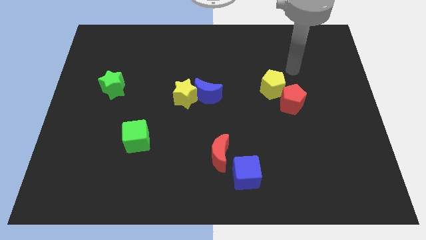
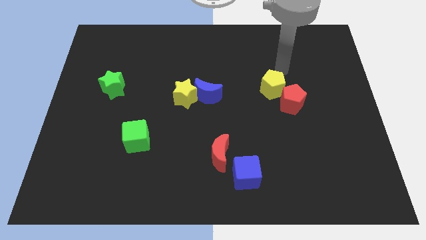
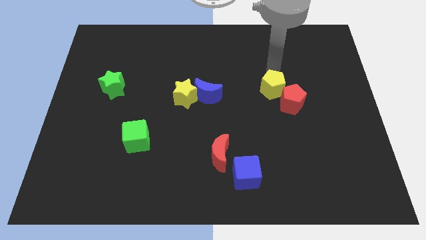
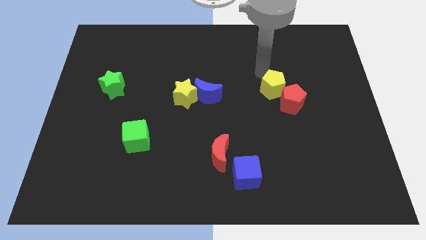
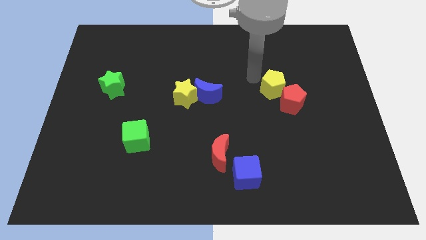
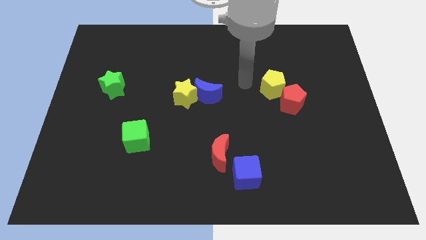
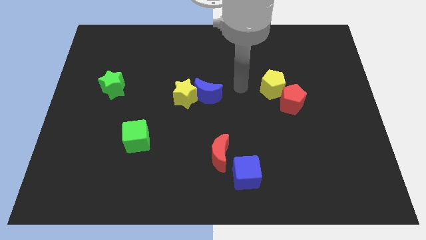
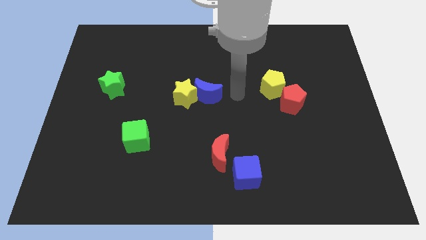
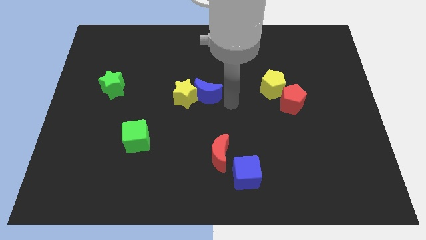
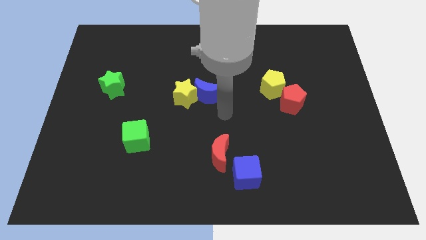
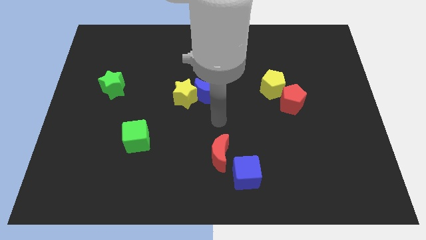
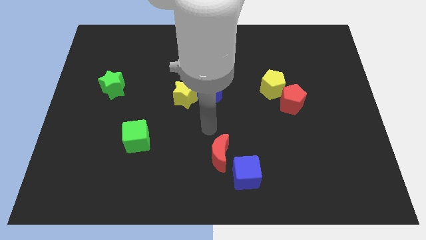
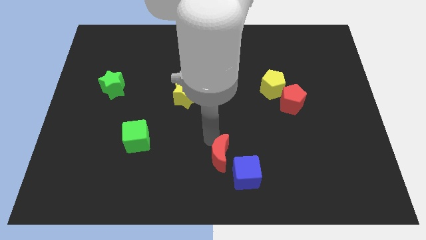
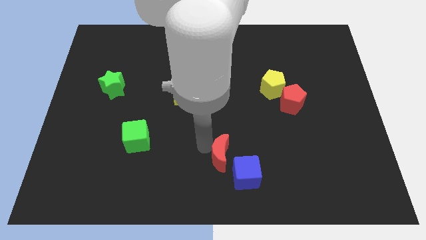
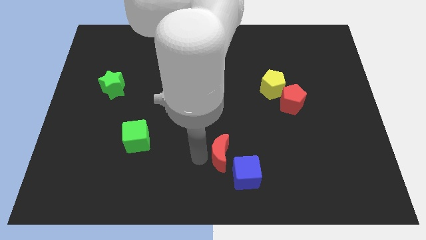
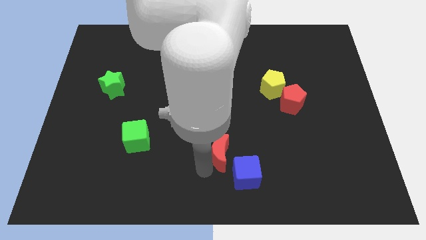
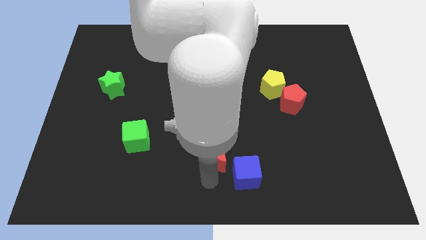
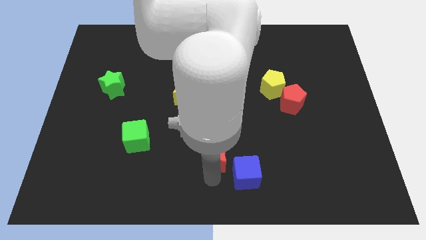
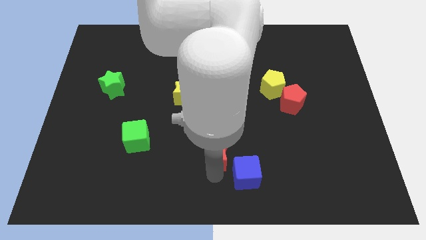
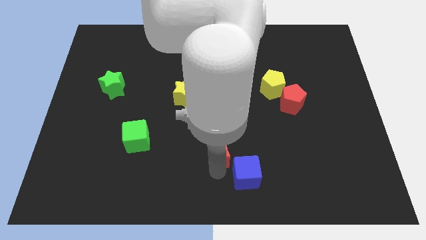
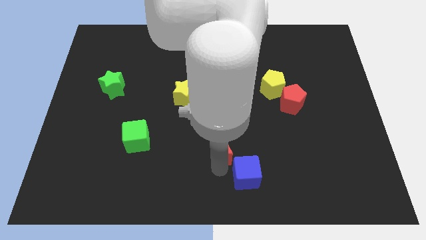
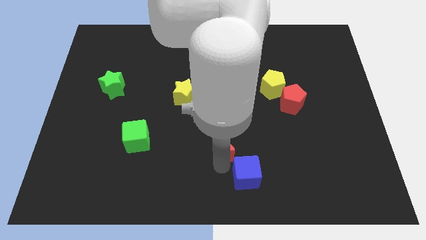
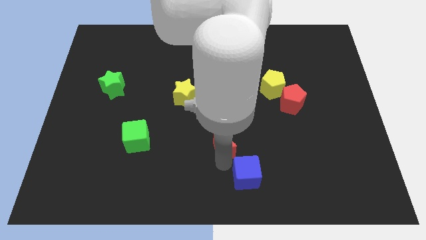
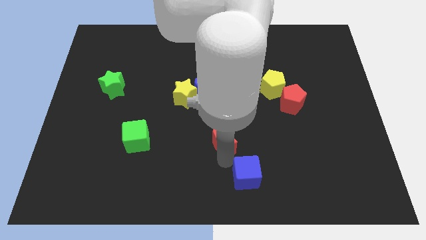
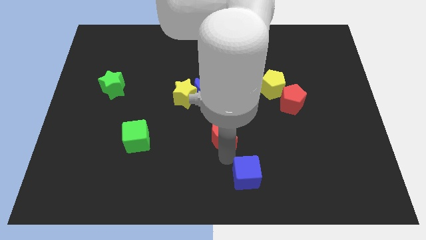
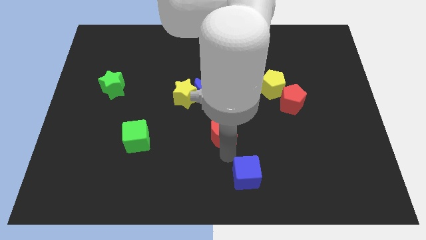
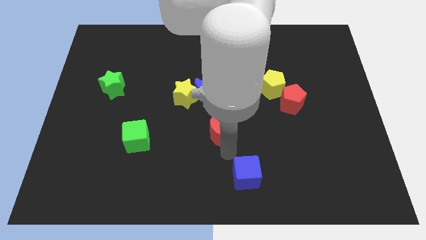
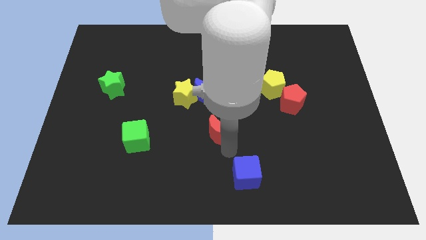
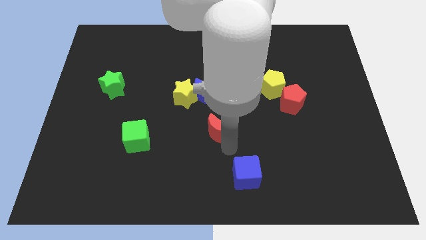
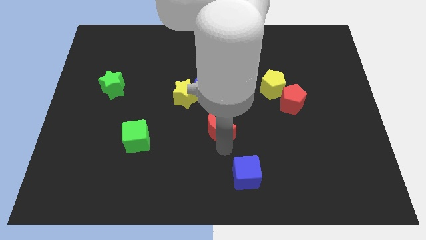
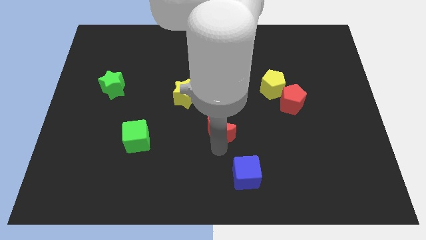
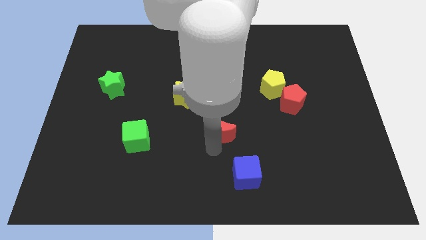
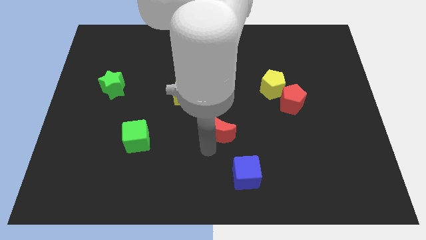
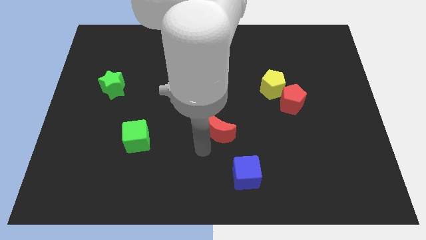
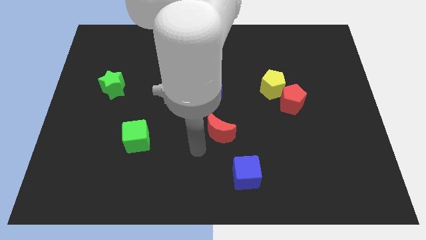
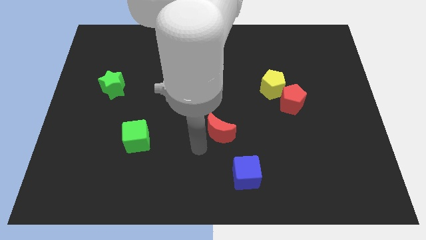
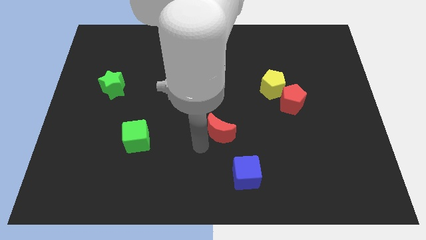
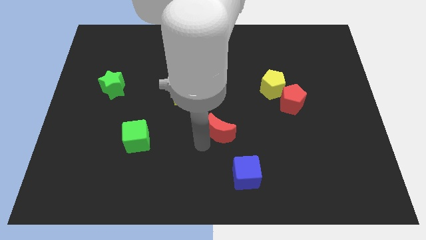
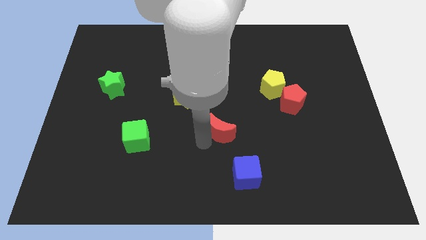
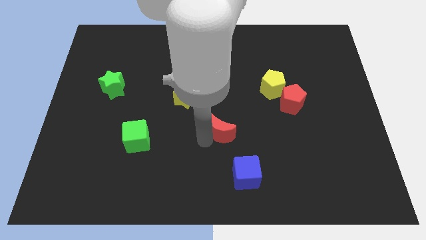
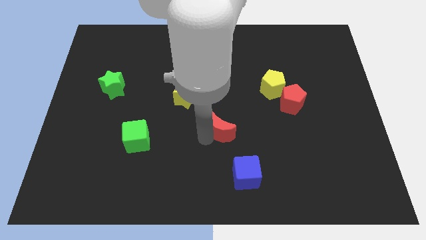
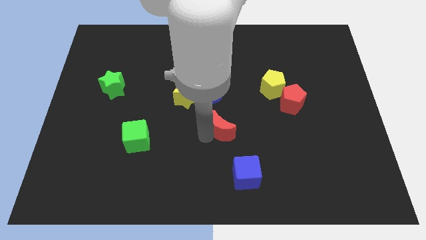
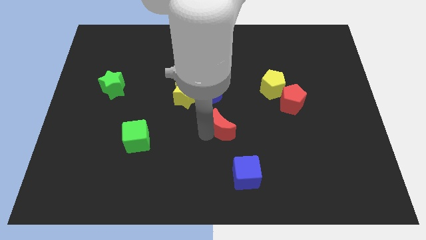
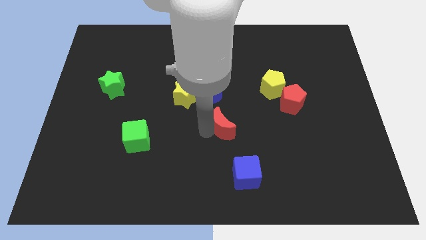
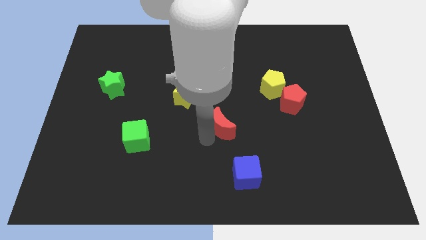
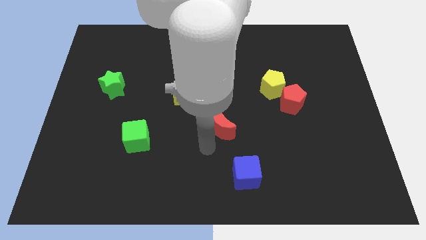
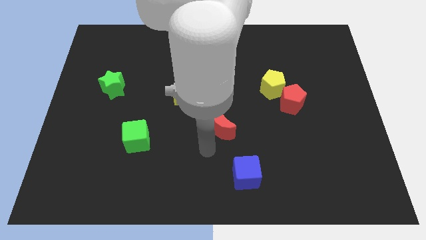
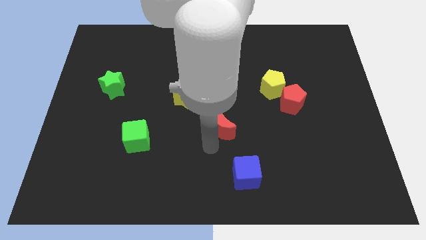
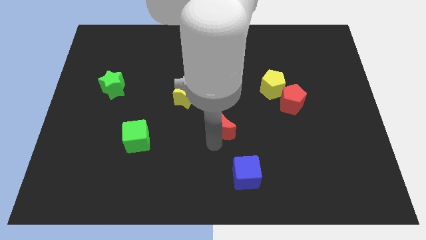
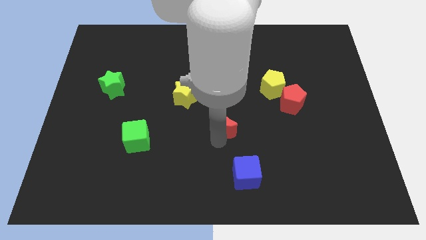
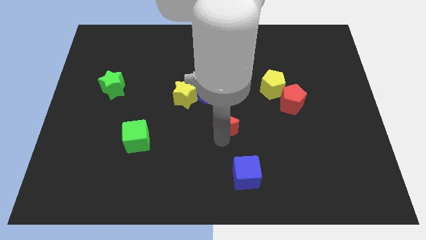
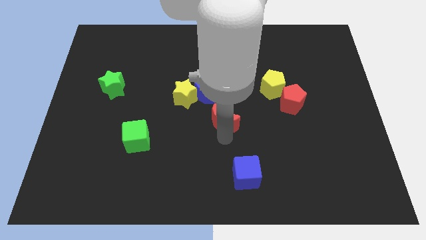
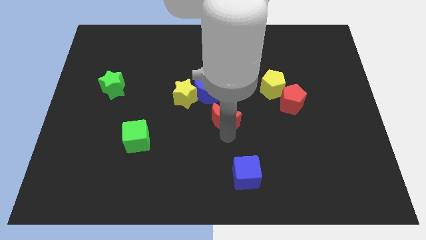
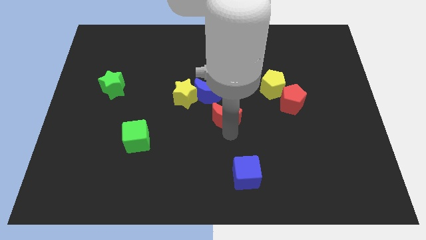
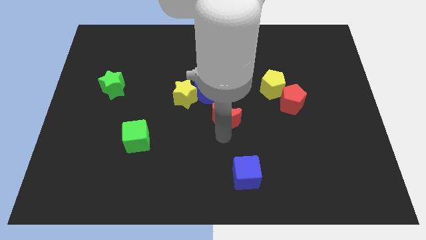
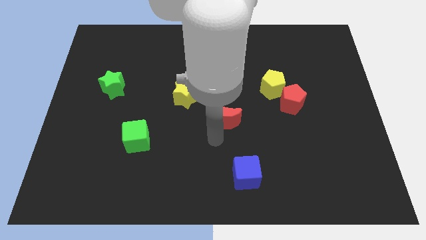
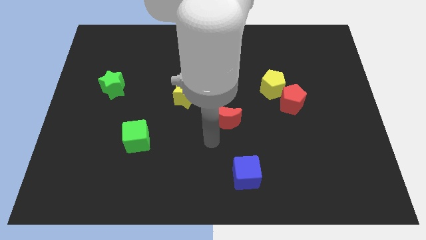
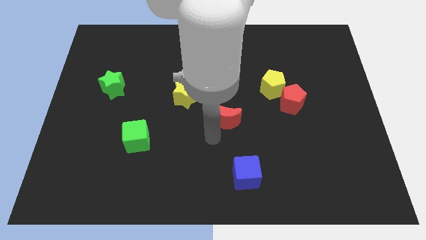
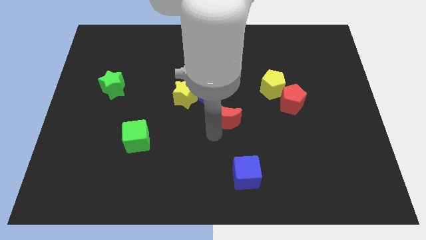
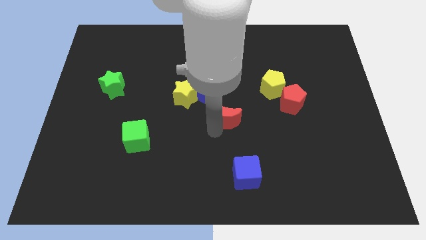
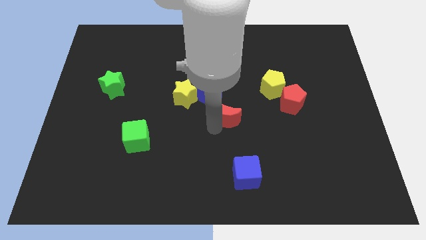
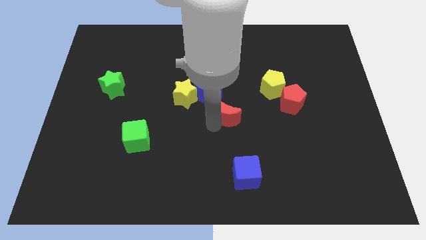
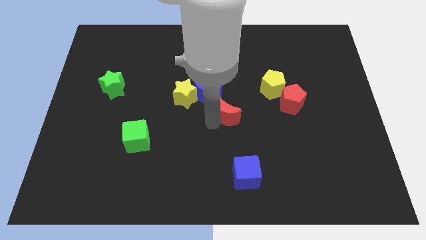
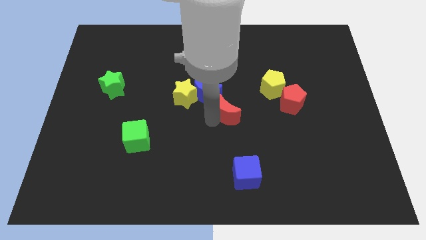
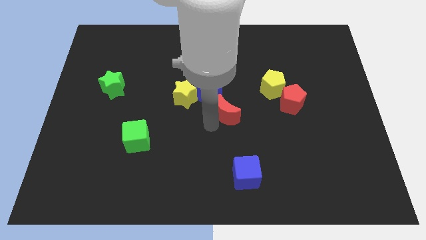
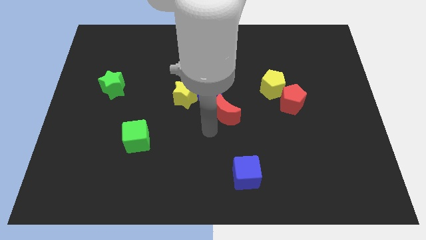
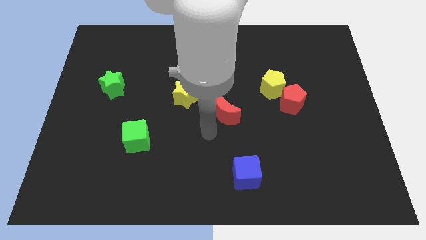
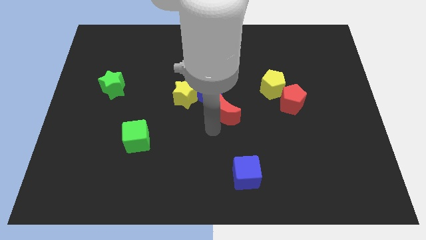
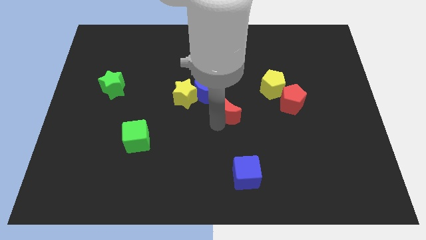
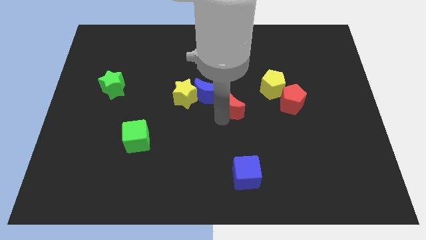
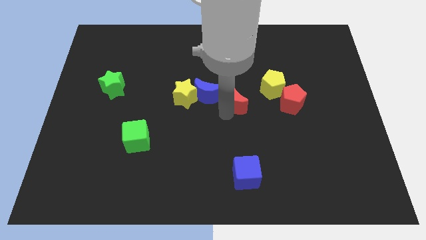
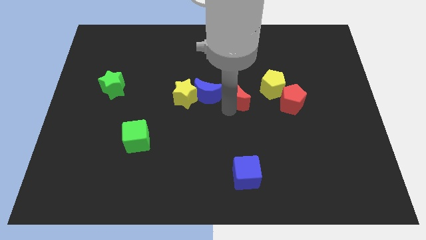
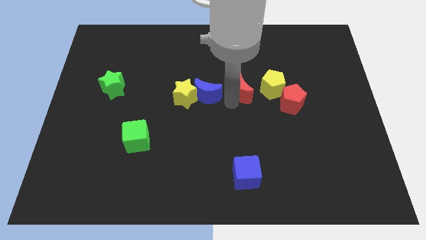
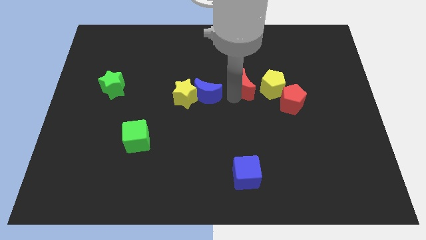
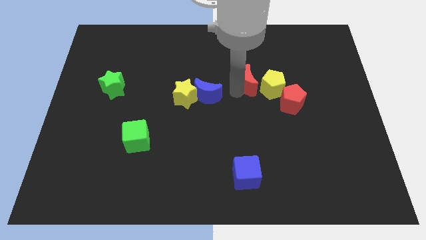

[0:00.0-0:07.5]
move the red moon to the top left of the red pentagon
